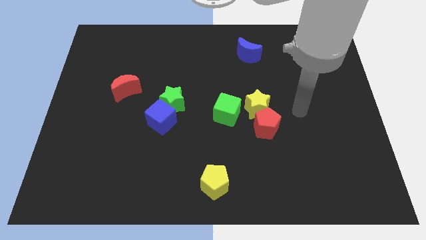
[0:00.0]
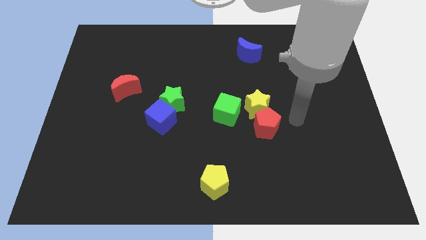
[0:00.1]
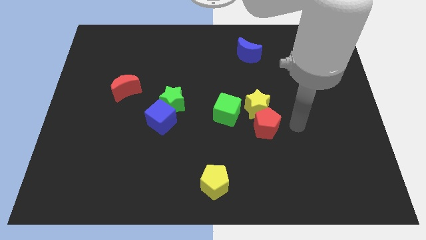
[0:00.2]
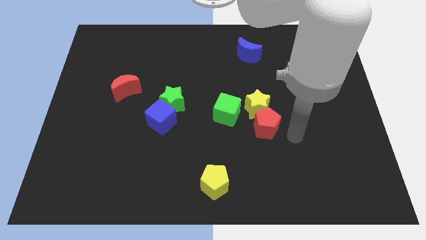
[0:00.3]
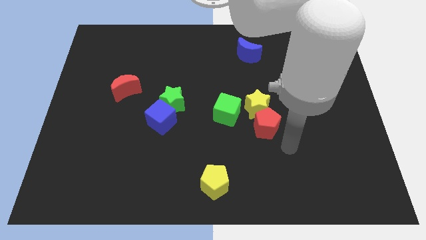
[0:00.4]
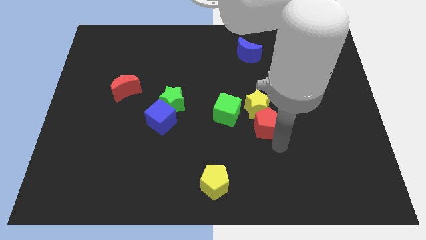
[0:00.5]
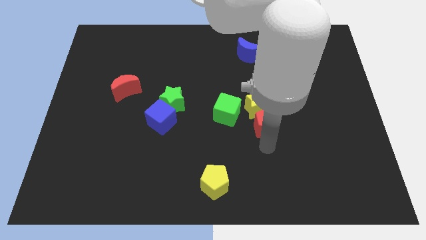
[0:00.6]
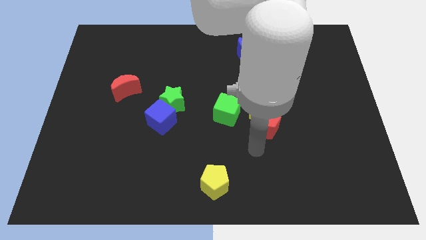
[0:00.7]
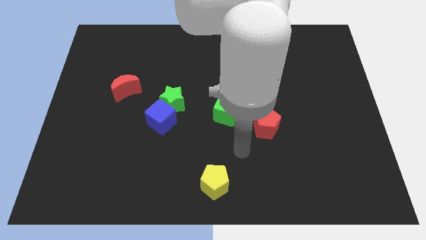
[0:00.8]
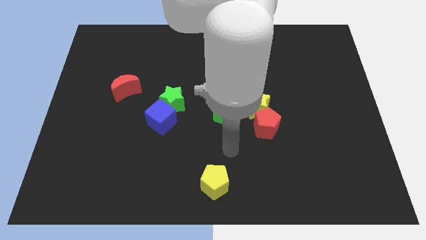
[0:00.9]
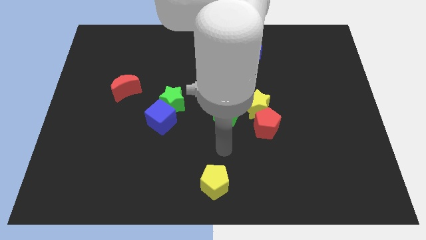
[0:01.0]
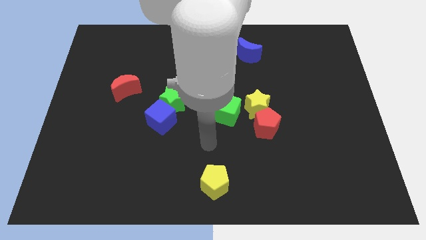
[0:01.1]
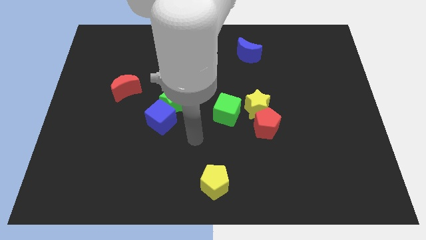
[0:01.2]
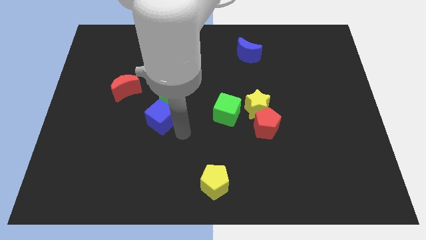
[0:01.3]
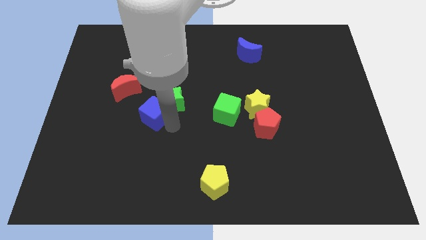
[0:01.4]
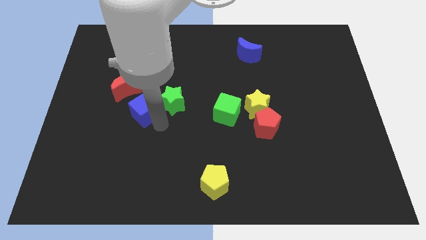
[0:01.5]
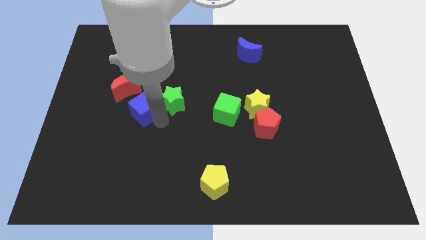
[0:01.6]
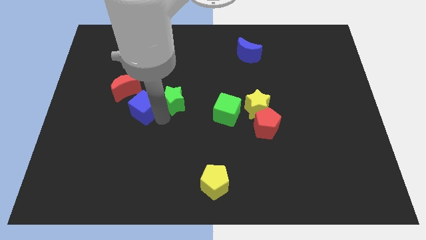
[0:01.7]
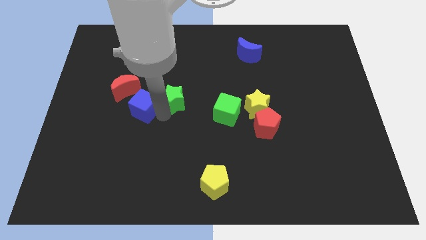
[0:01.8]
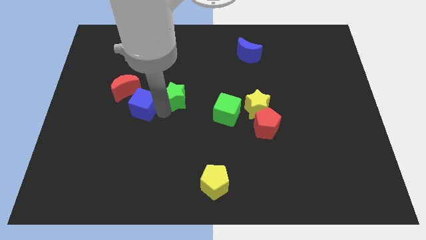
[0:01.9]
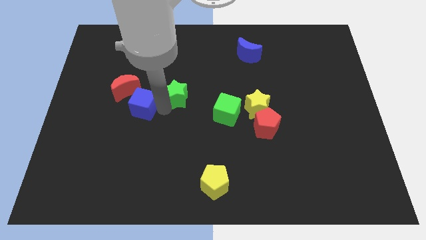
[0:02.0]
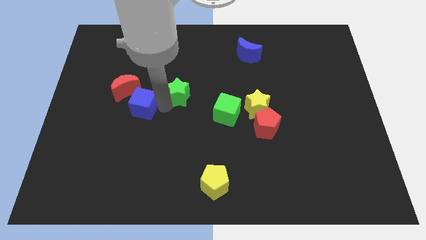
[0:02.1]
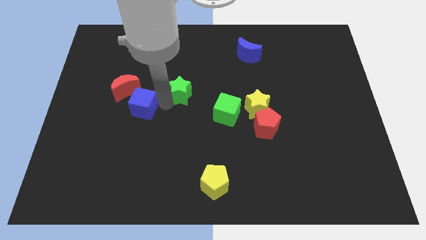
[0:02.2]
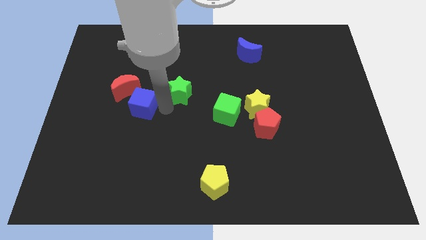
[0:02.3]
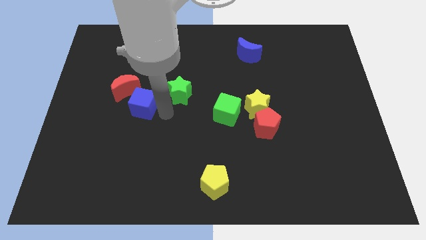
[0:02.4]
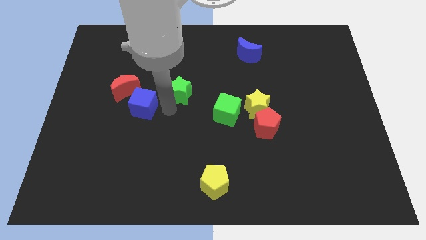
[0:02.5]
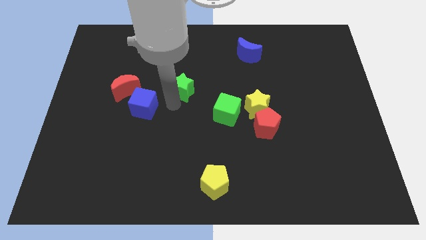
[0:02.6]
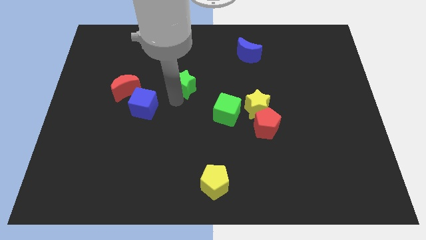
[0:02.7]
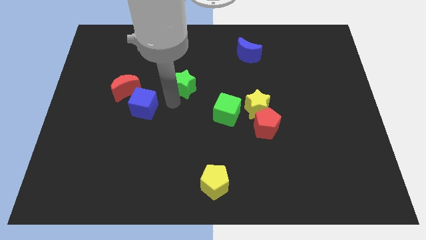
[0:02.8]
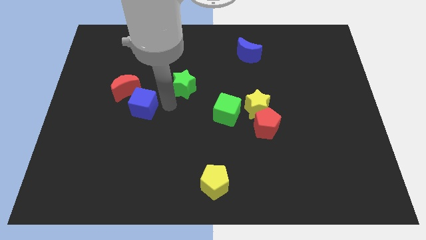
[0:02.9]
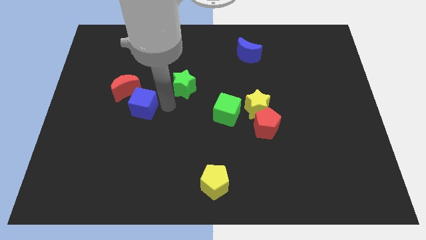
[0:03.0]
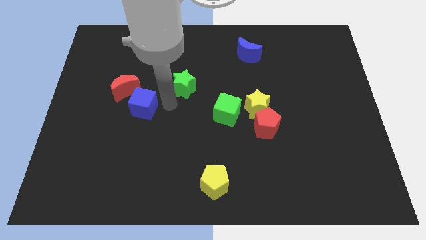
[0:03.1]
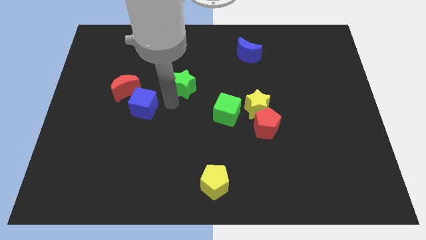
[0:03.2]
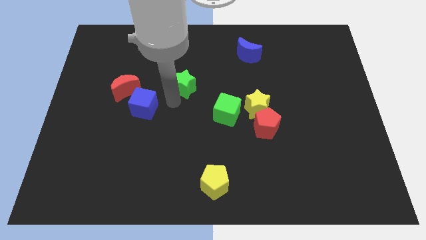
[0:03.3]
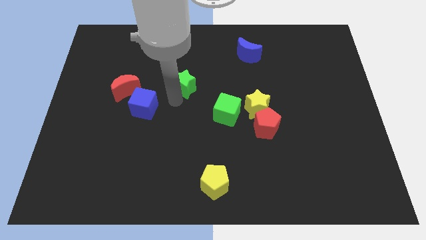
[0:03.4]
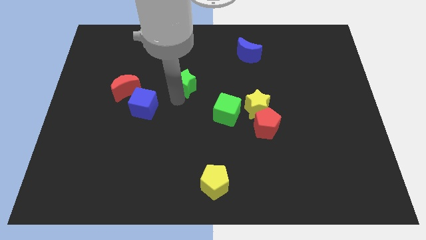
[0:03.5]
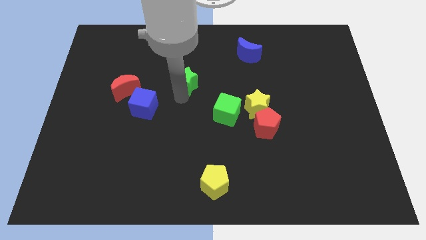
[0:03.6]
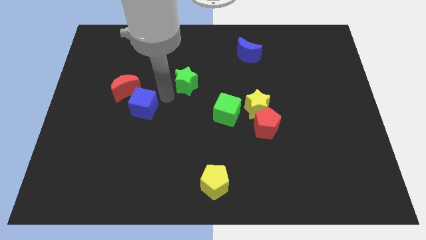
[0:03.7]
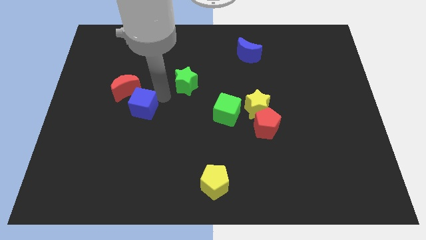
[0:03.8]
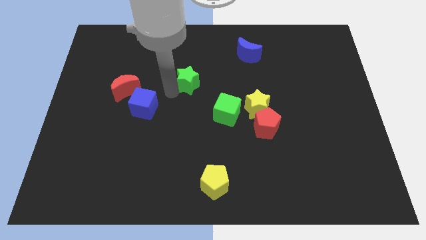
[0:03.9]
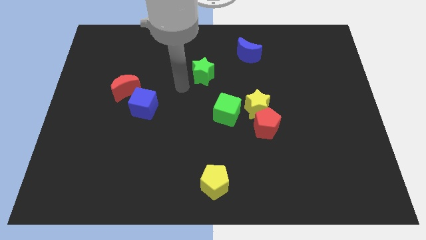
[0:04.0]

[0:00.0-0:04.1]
slightly slide the green star diagonally up and right

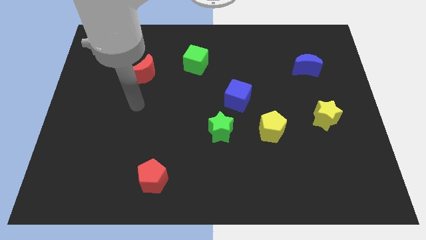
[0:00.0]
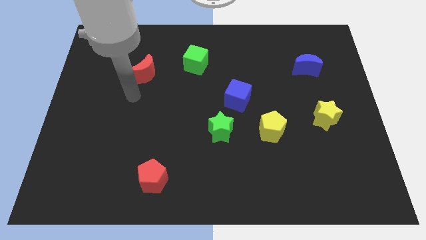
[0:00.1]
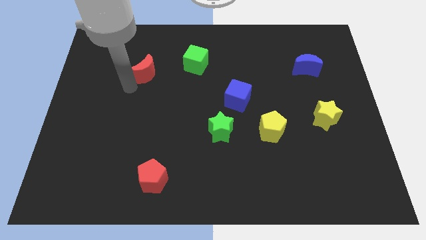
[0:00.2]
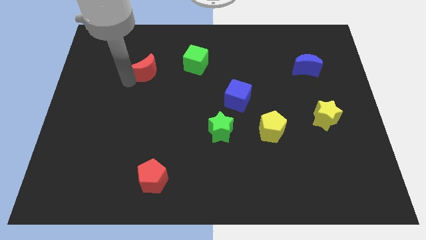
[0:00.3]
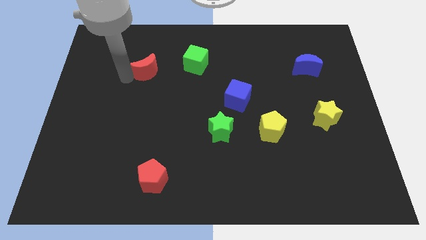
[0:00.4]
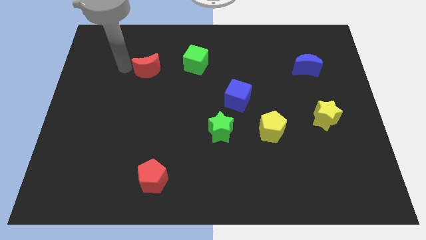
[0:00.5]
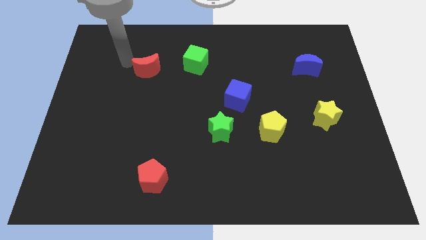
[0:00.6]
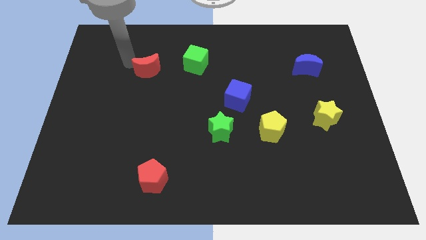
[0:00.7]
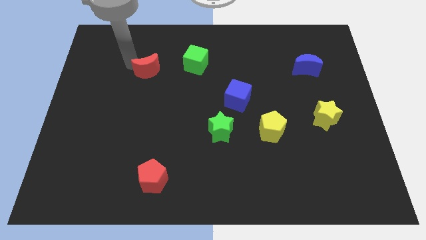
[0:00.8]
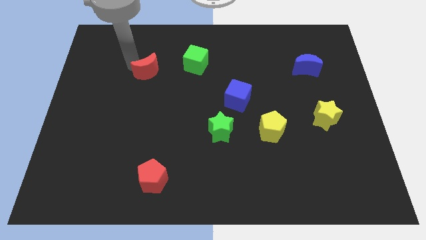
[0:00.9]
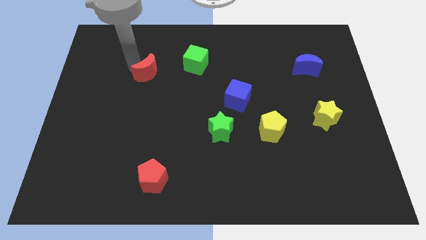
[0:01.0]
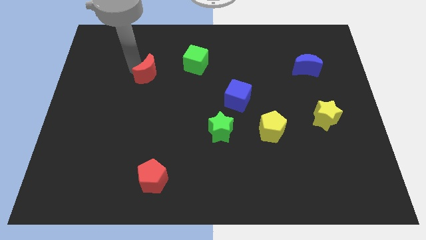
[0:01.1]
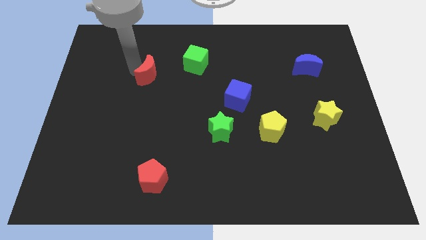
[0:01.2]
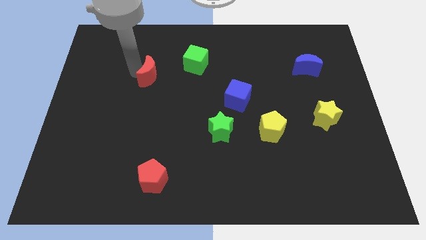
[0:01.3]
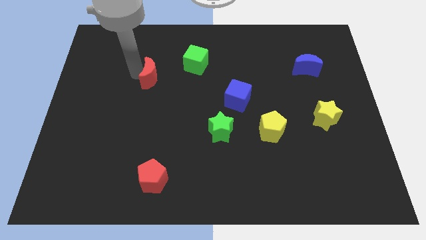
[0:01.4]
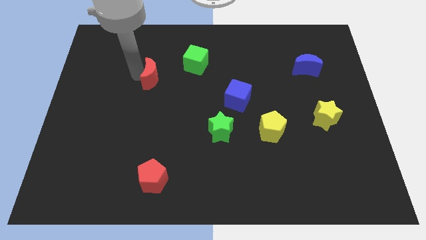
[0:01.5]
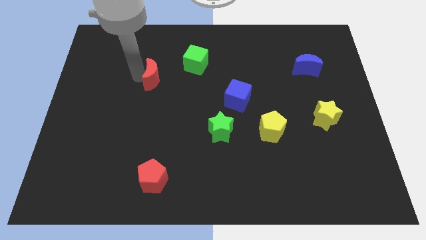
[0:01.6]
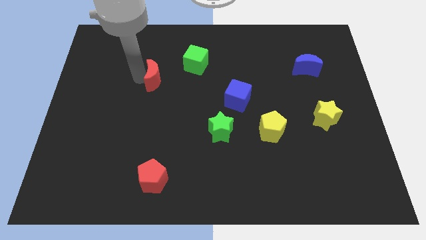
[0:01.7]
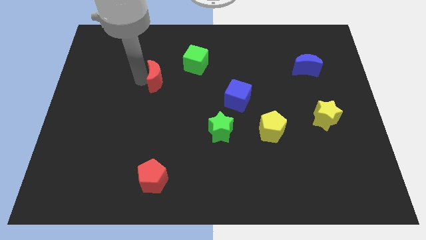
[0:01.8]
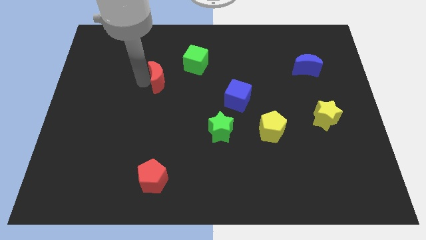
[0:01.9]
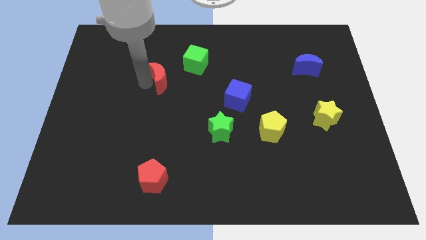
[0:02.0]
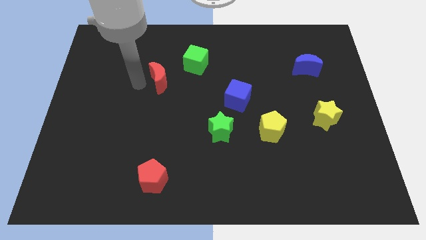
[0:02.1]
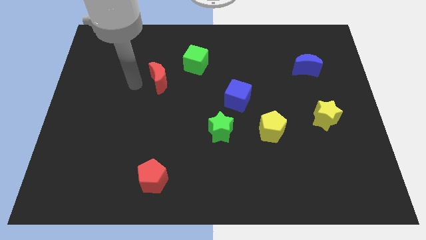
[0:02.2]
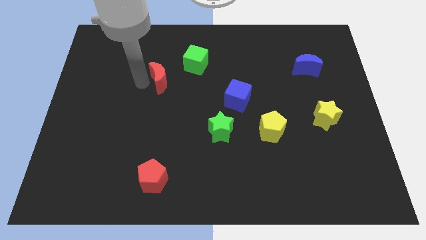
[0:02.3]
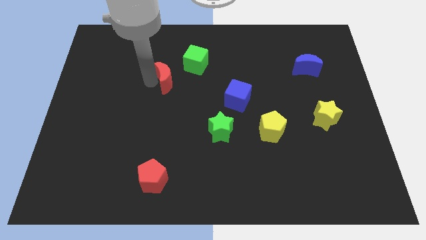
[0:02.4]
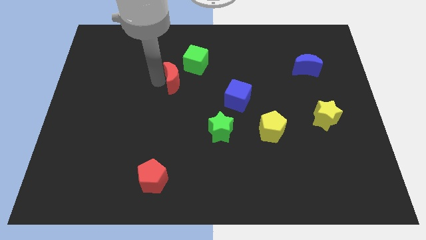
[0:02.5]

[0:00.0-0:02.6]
push the red moon to the right somewhat

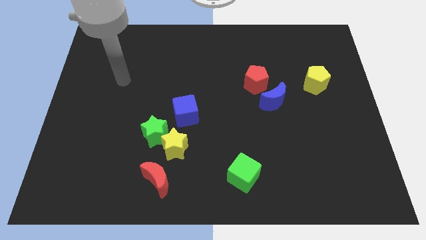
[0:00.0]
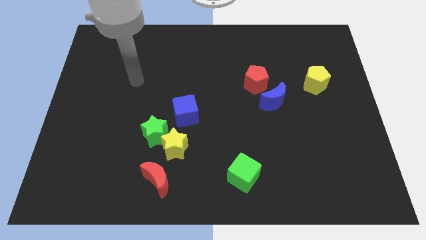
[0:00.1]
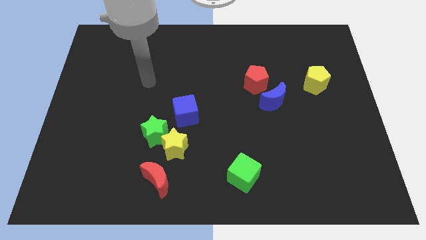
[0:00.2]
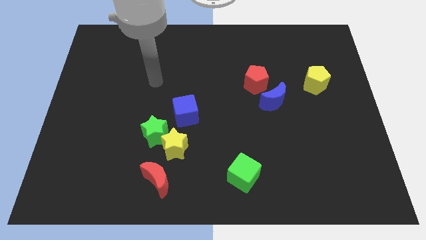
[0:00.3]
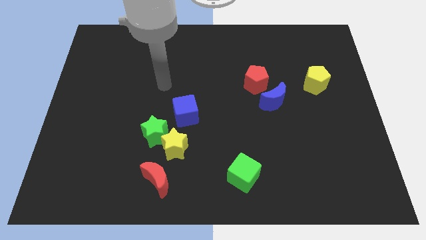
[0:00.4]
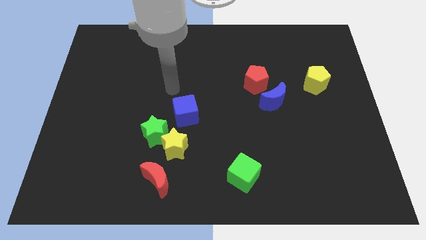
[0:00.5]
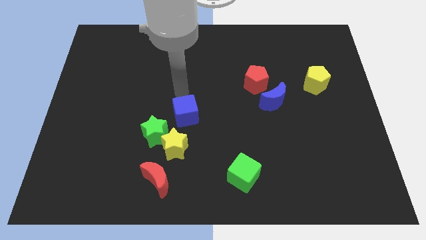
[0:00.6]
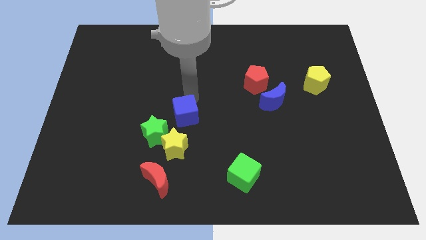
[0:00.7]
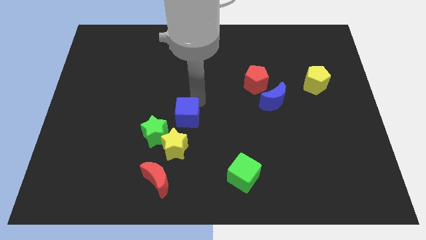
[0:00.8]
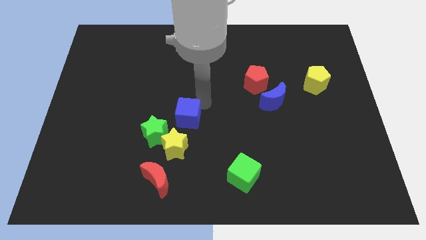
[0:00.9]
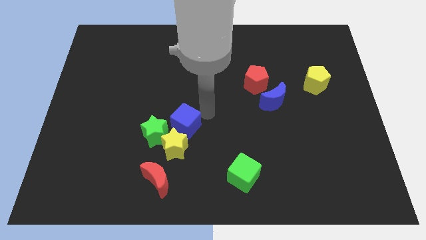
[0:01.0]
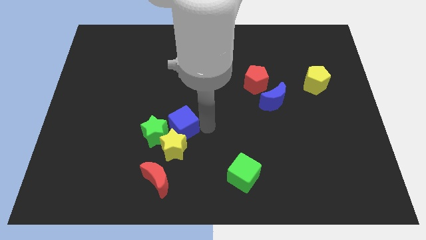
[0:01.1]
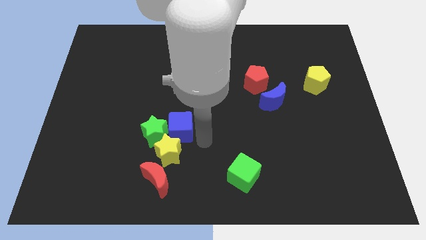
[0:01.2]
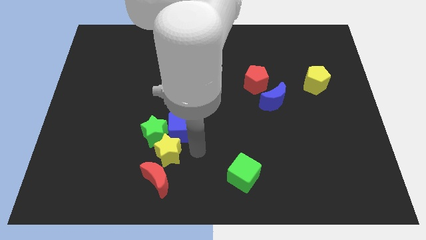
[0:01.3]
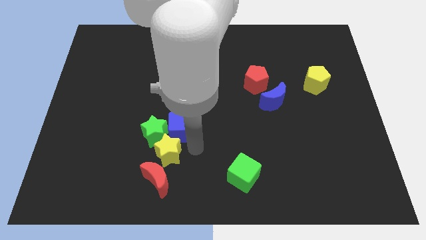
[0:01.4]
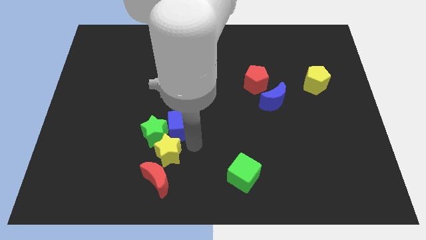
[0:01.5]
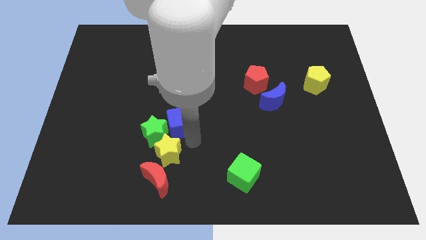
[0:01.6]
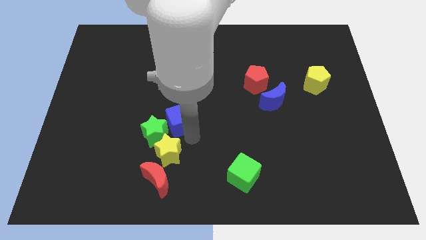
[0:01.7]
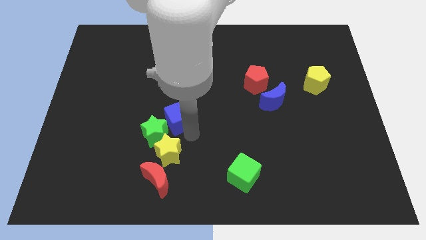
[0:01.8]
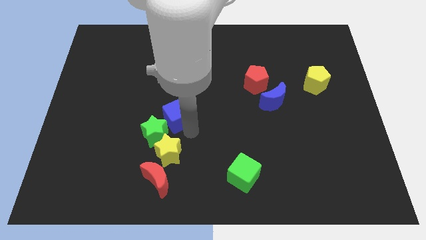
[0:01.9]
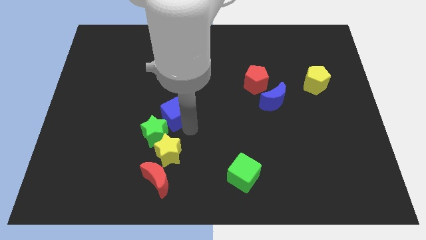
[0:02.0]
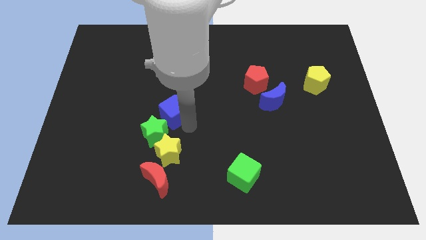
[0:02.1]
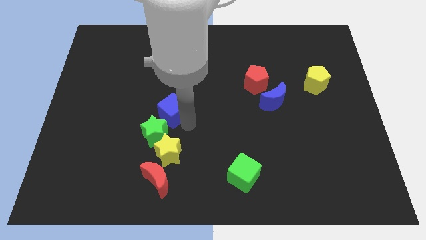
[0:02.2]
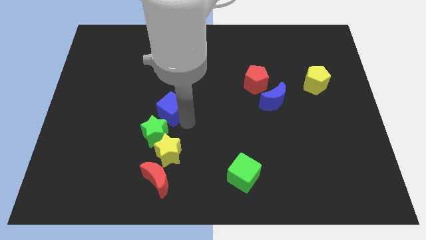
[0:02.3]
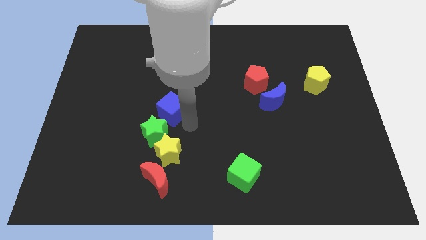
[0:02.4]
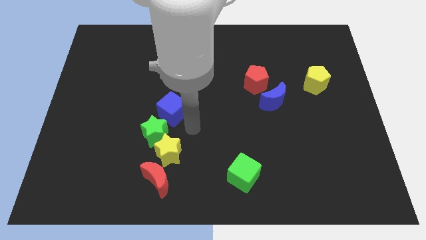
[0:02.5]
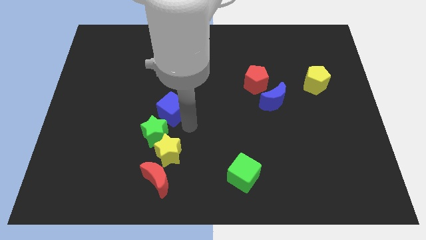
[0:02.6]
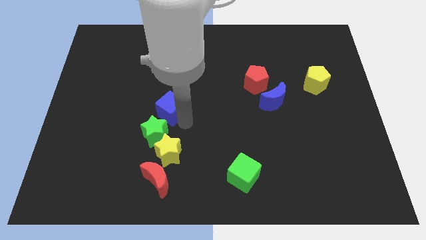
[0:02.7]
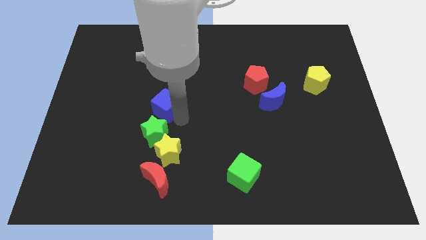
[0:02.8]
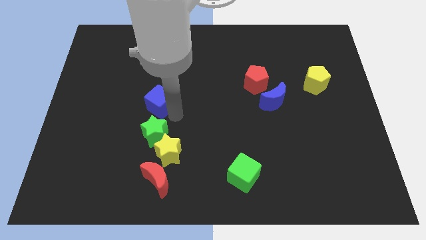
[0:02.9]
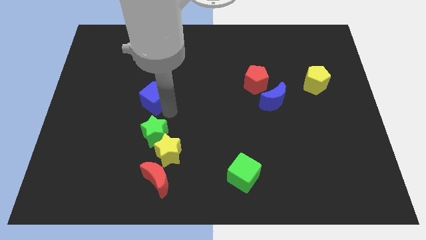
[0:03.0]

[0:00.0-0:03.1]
move the blue cube diagonally up and left a little
